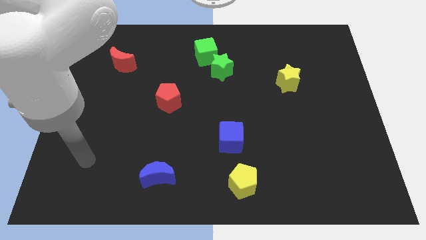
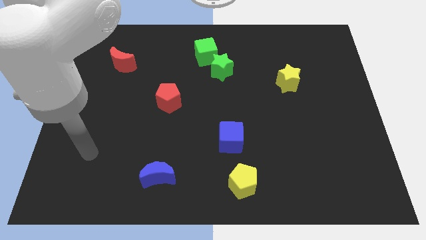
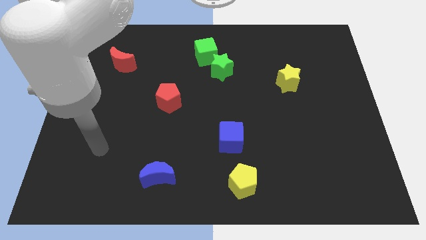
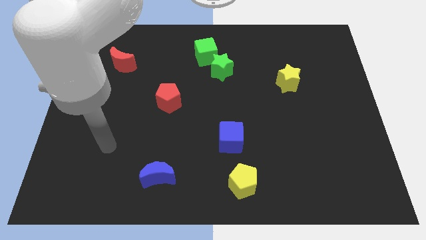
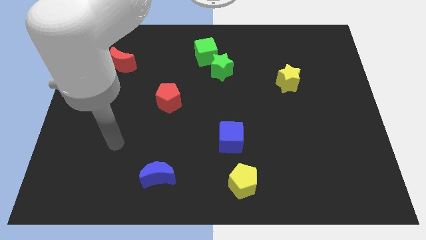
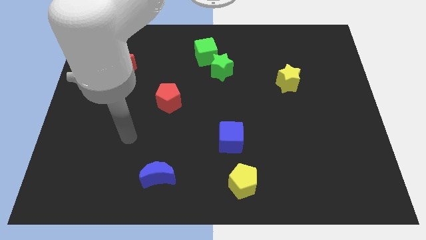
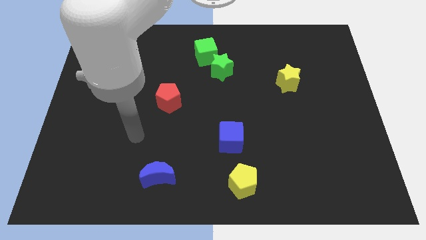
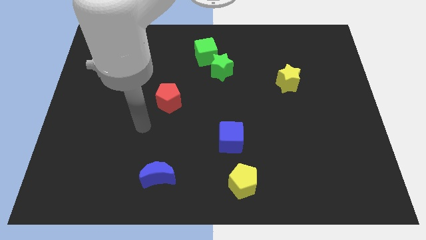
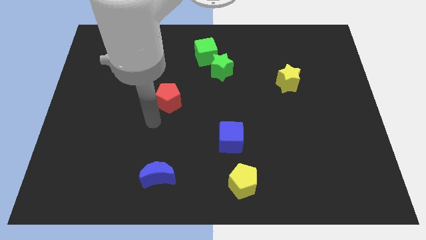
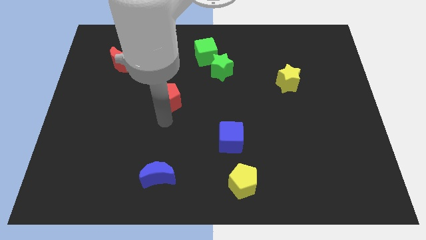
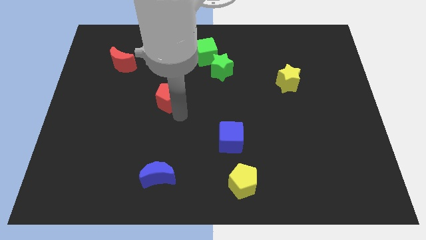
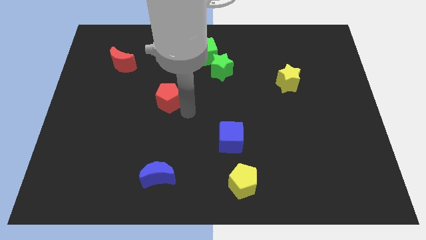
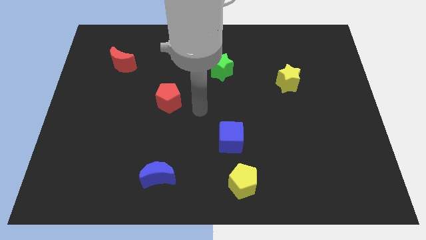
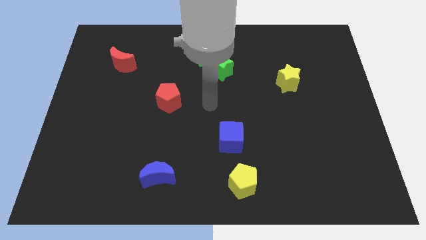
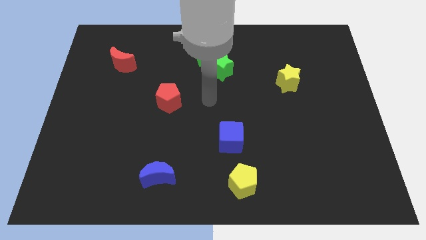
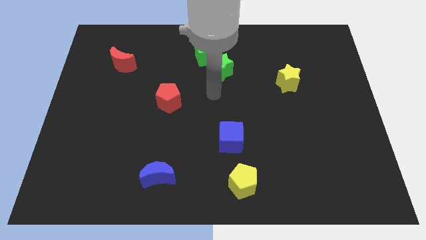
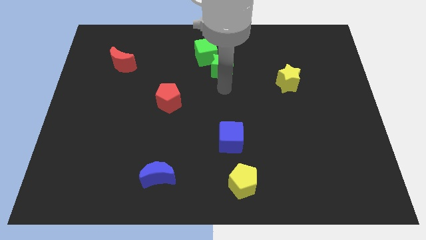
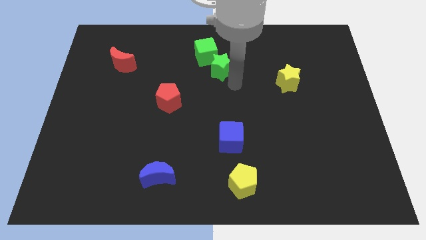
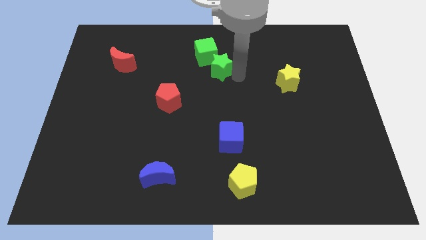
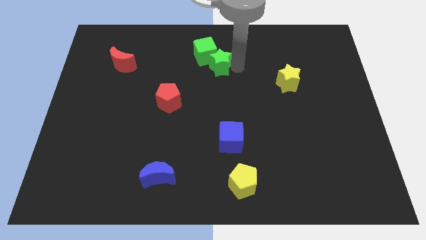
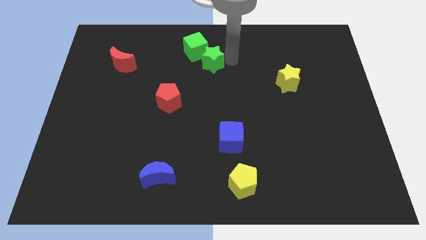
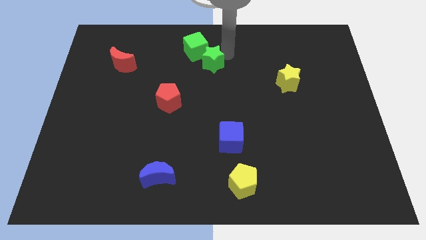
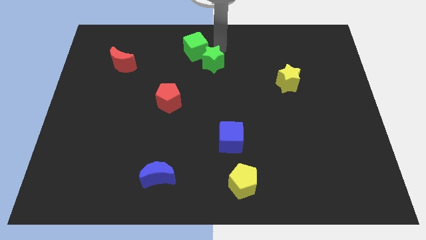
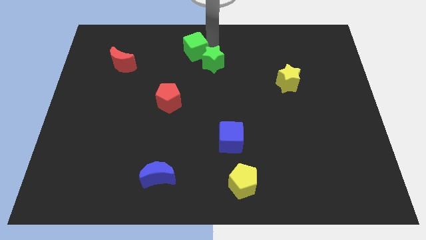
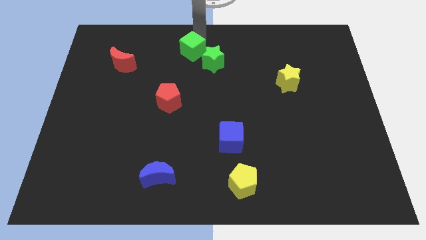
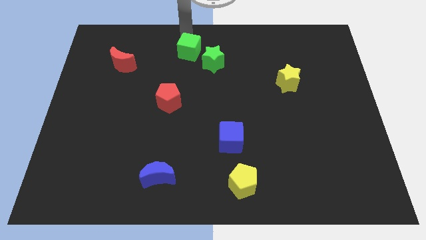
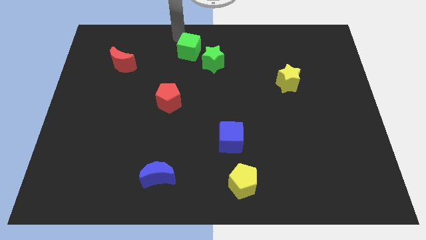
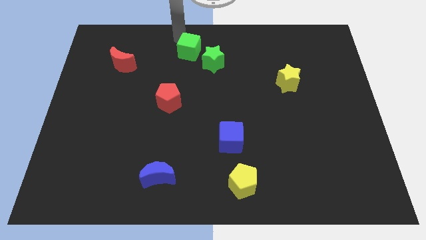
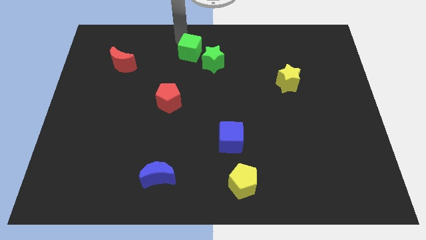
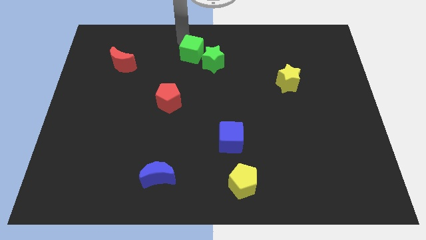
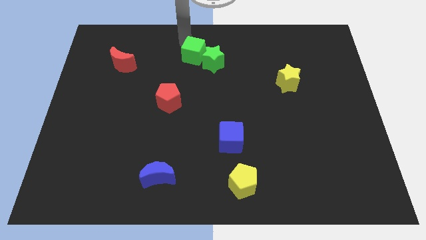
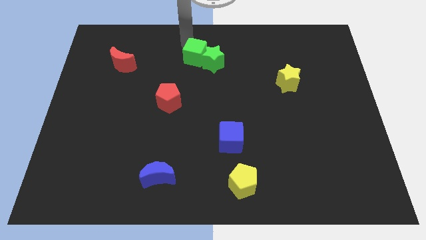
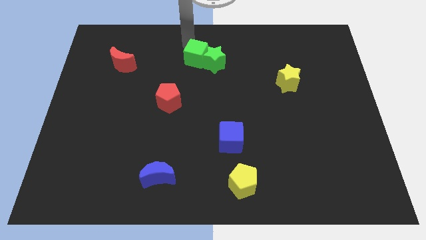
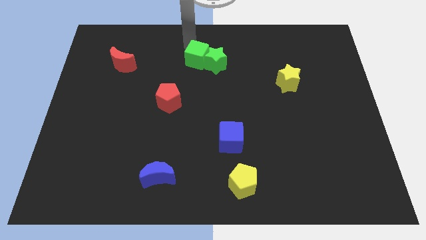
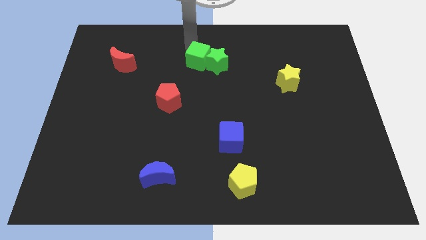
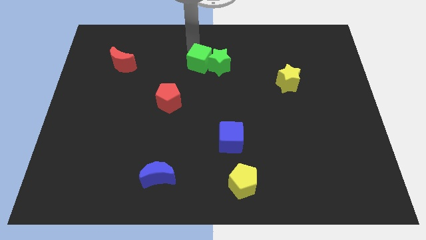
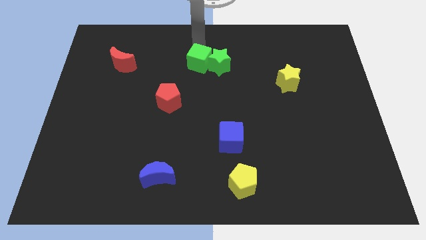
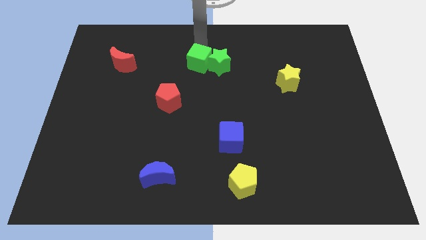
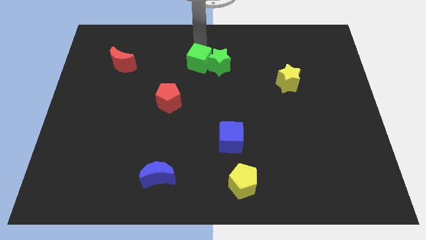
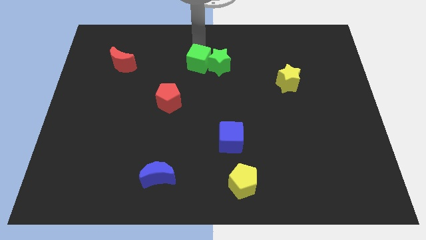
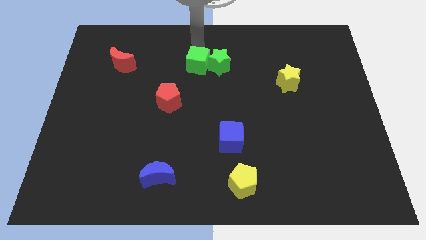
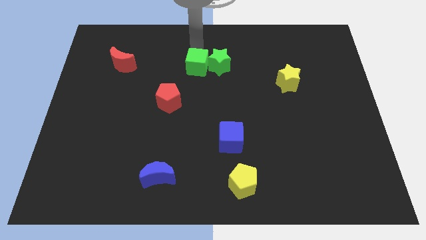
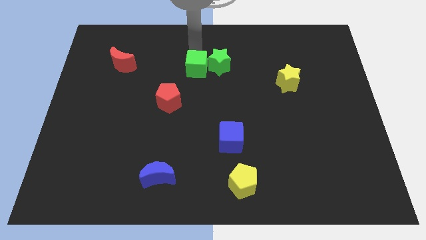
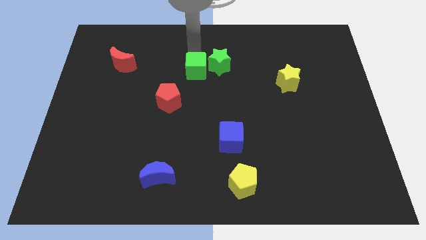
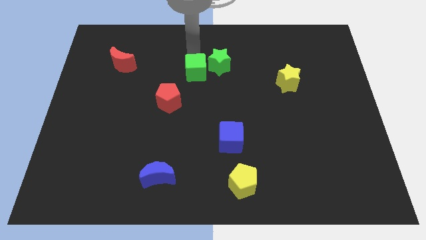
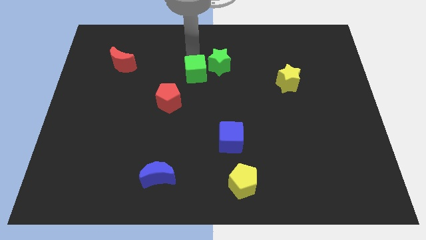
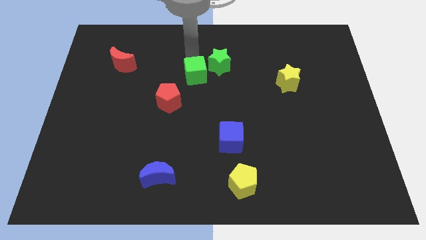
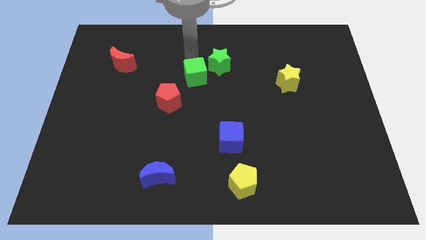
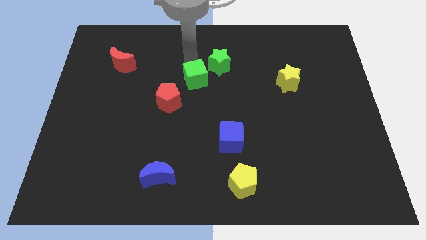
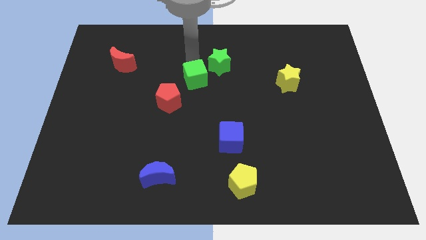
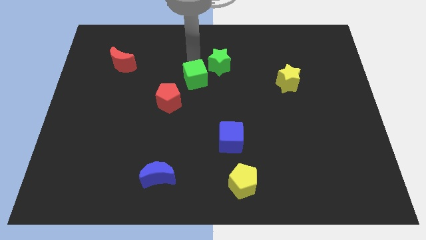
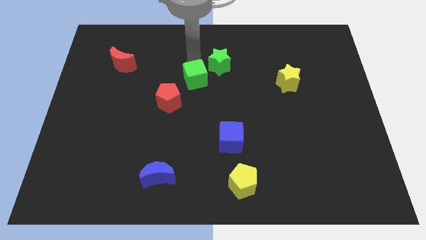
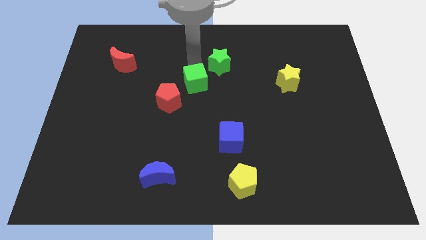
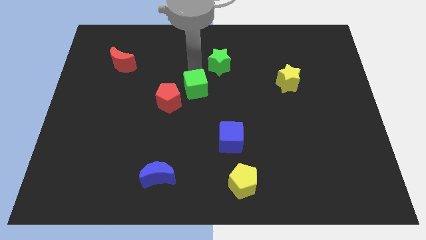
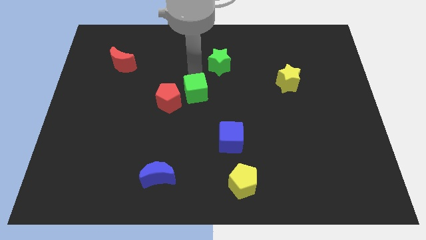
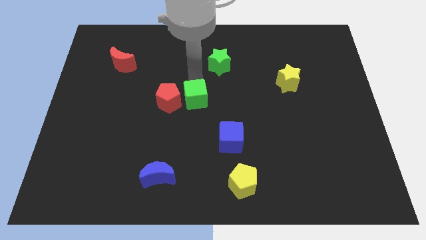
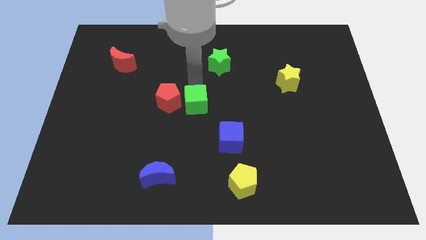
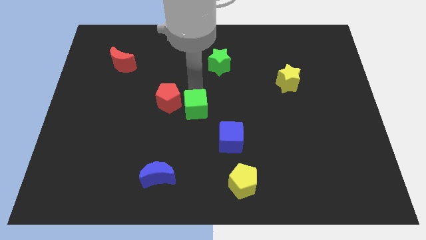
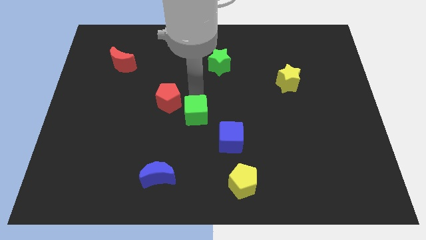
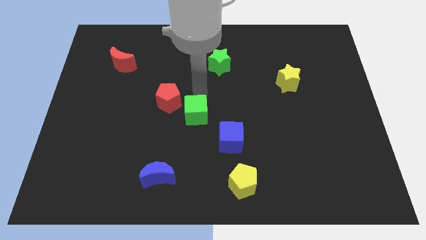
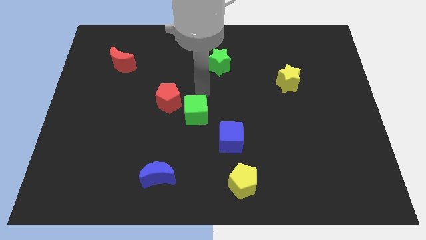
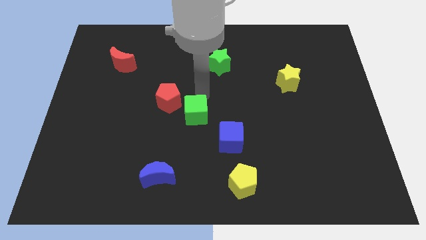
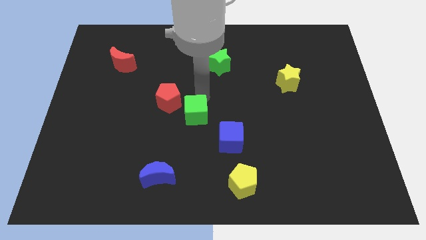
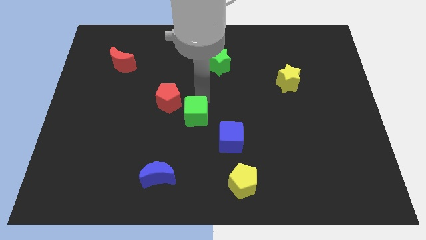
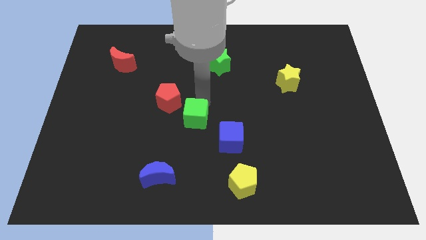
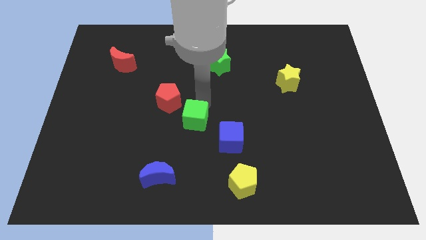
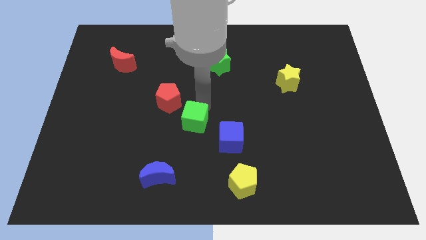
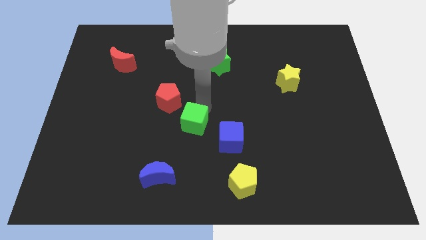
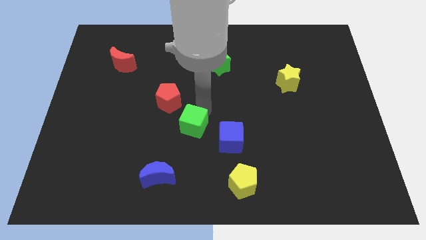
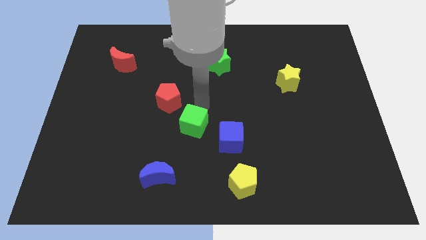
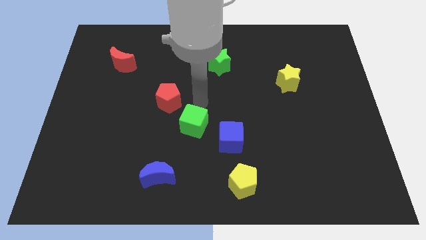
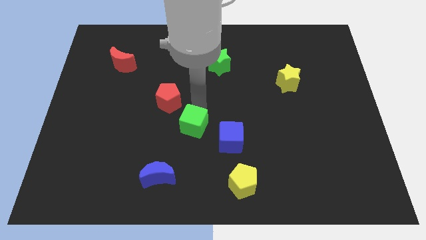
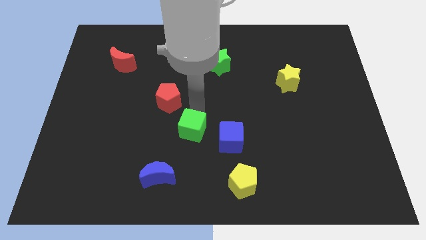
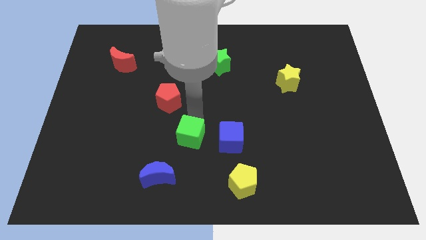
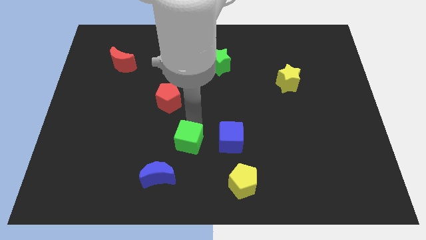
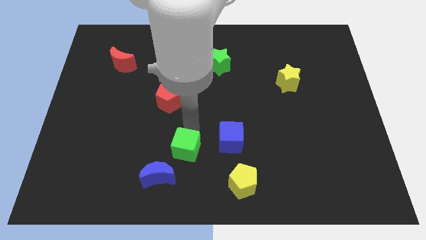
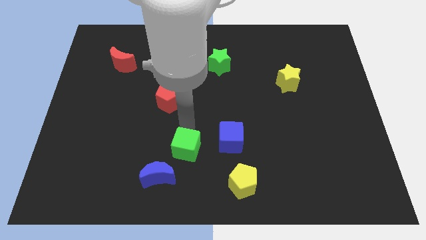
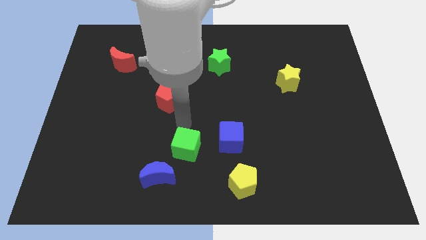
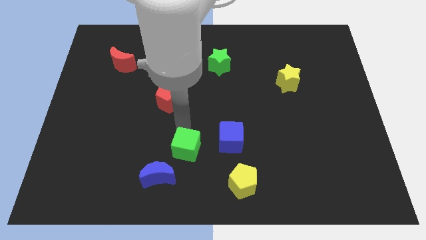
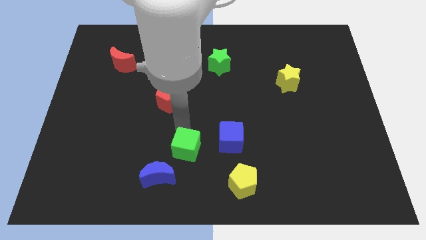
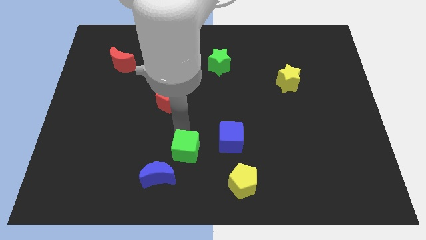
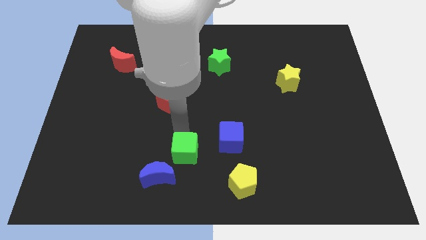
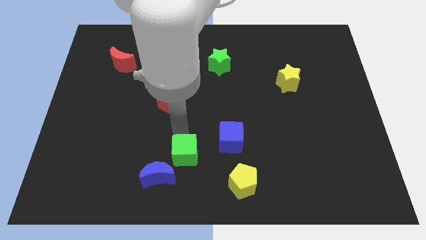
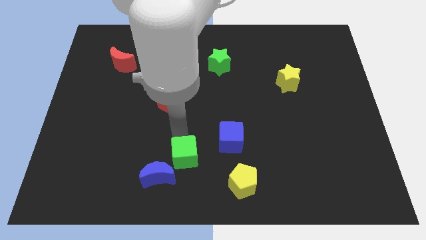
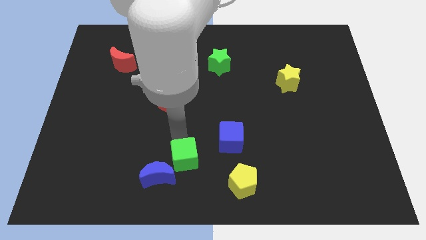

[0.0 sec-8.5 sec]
push the green cube to the bottom
